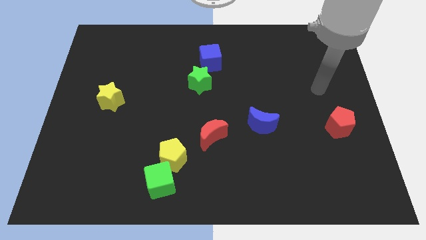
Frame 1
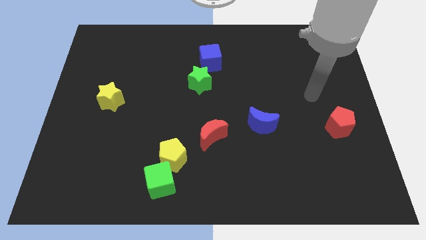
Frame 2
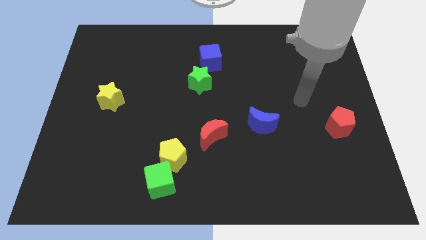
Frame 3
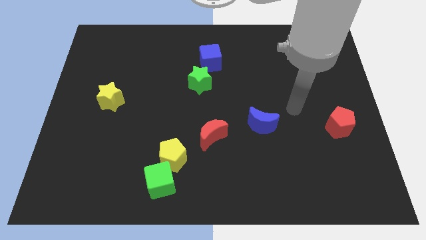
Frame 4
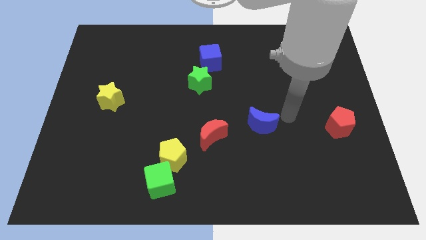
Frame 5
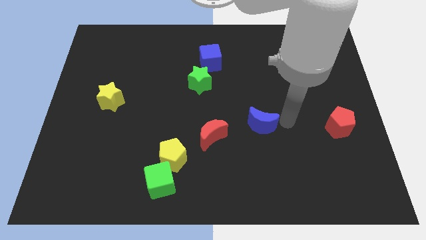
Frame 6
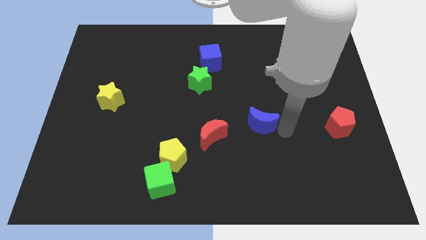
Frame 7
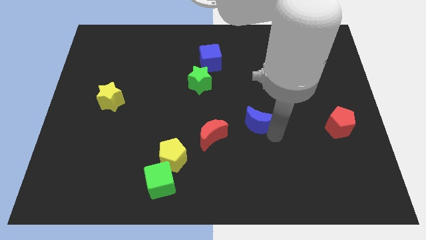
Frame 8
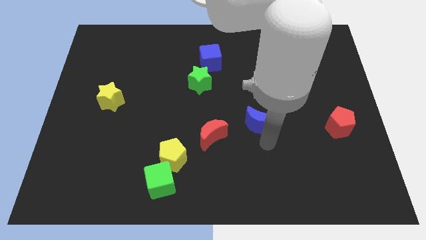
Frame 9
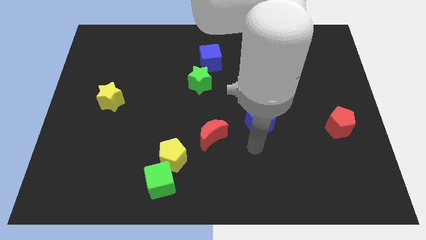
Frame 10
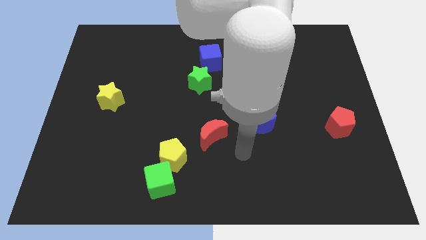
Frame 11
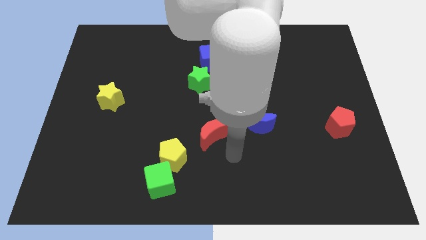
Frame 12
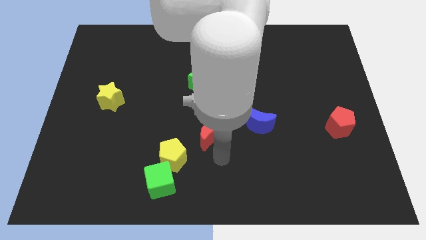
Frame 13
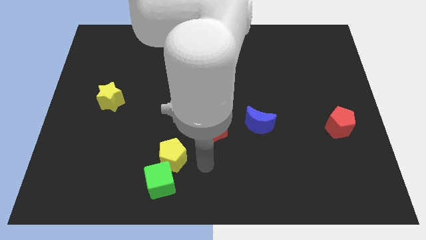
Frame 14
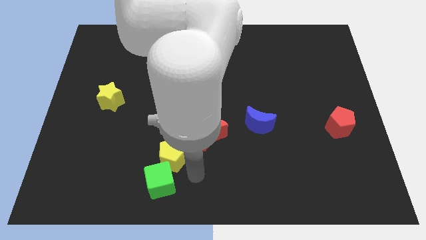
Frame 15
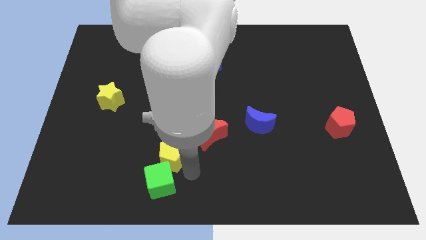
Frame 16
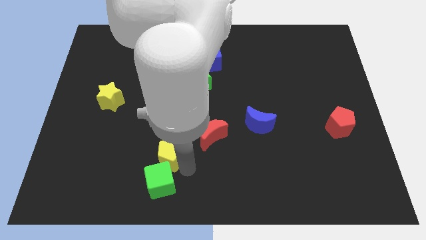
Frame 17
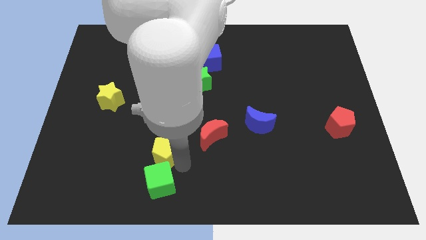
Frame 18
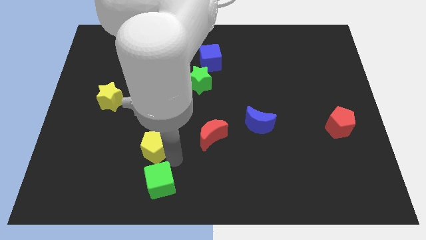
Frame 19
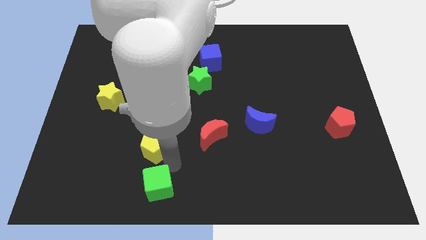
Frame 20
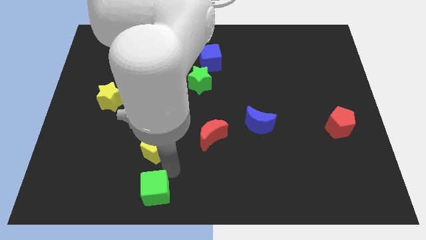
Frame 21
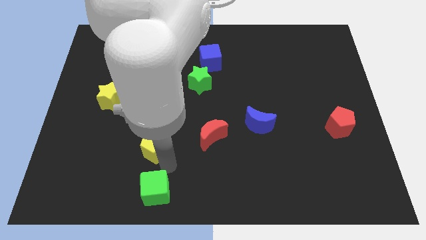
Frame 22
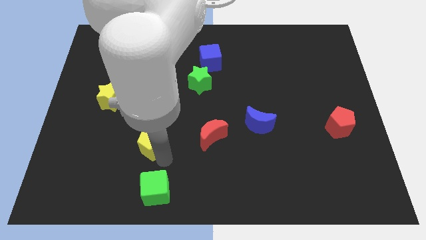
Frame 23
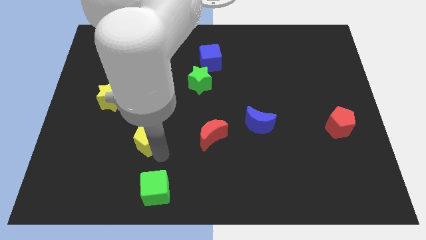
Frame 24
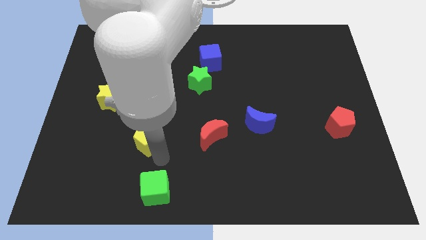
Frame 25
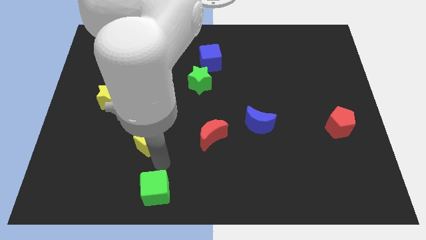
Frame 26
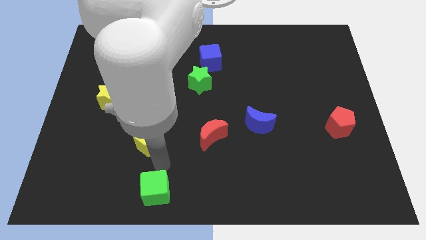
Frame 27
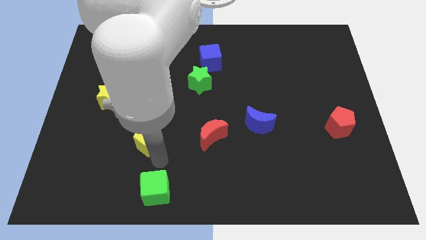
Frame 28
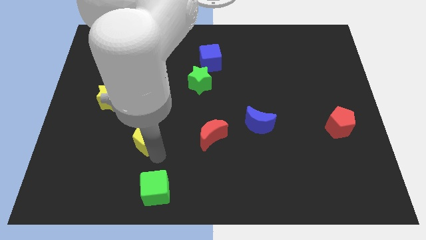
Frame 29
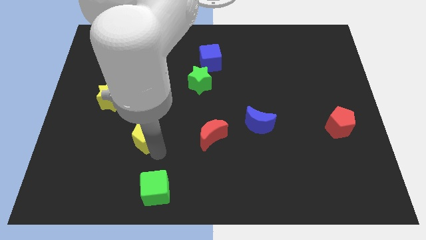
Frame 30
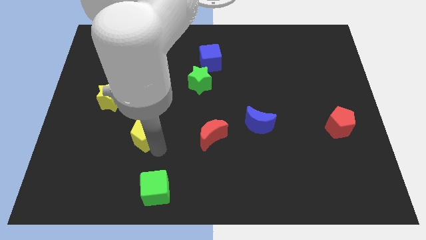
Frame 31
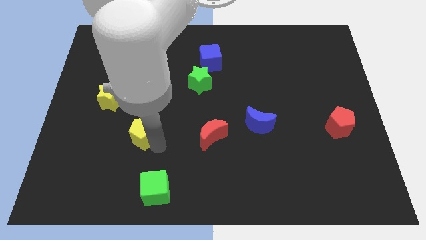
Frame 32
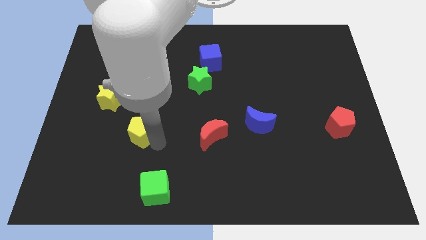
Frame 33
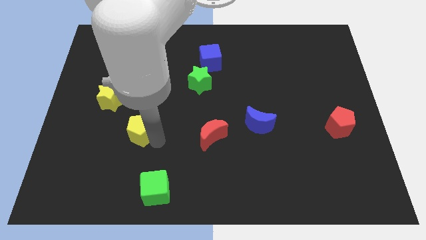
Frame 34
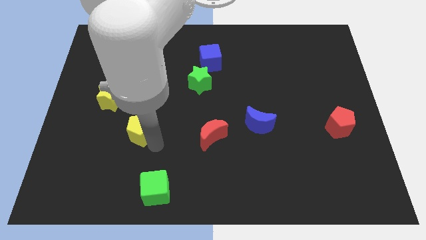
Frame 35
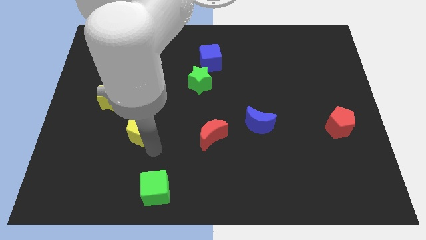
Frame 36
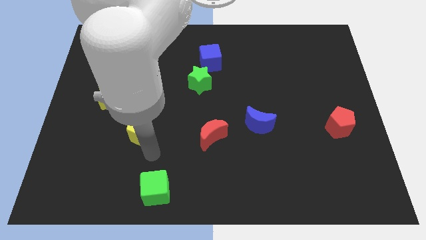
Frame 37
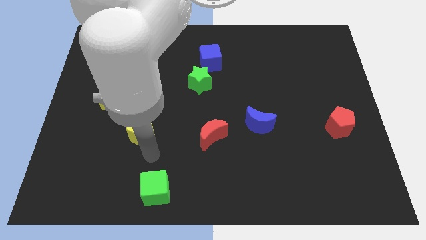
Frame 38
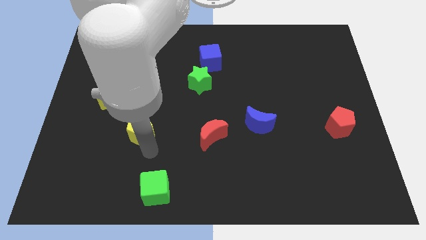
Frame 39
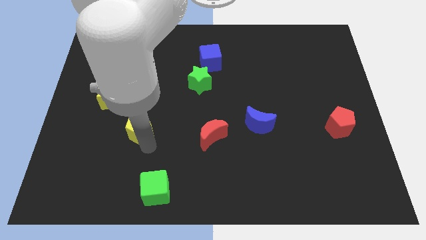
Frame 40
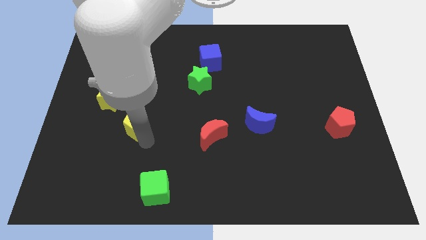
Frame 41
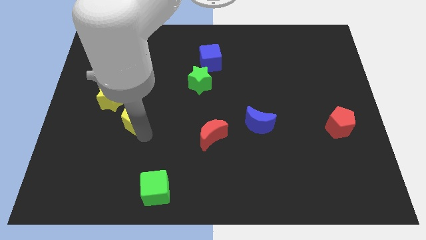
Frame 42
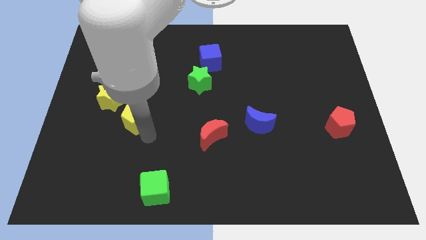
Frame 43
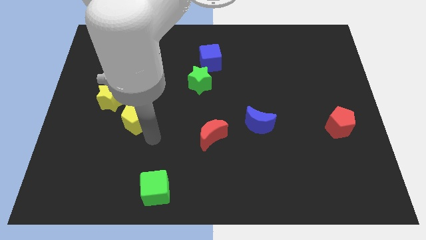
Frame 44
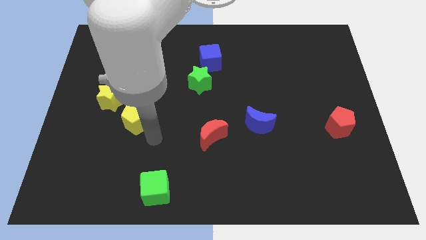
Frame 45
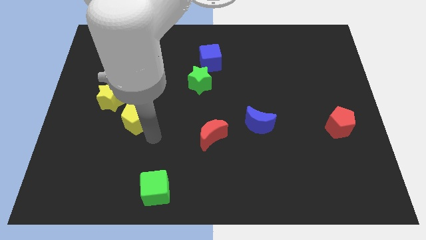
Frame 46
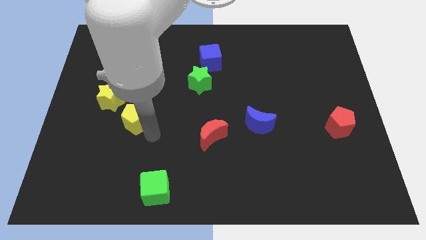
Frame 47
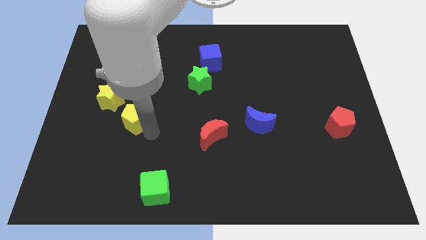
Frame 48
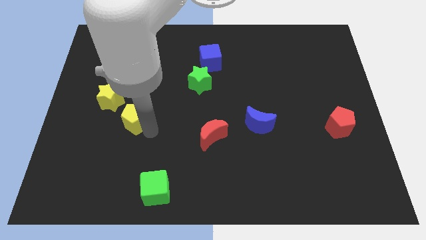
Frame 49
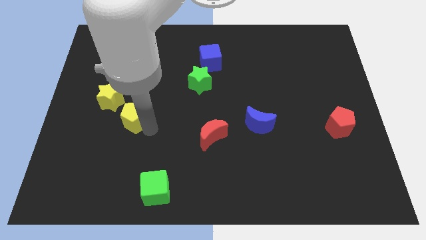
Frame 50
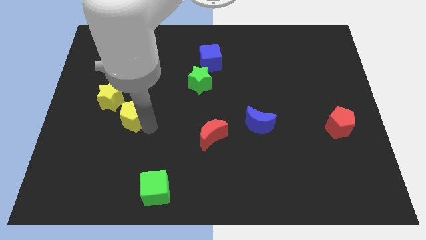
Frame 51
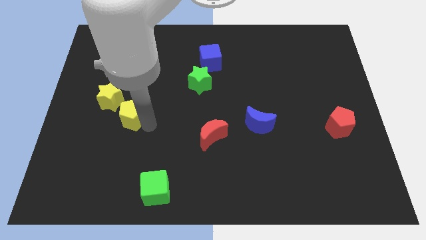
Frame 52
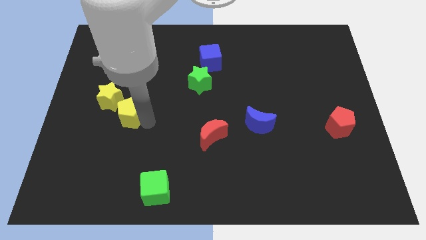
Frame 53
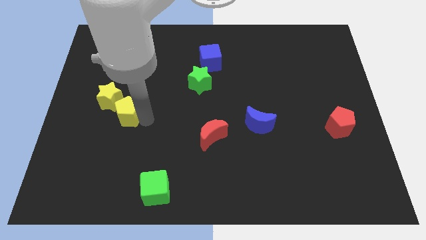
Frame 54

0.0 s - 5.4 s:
push the yellow pentagon next to the yellow star

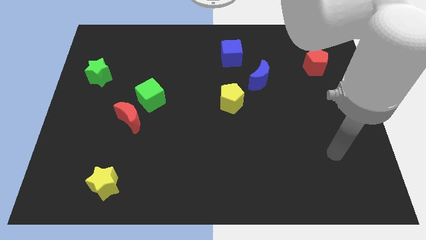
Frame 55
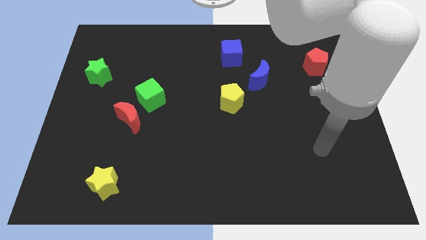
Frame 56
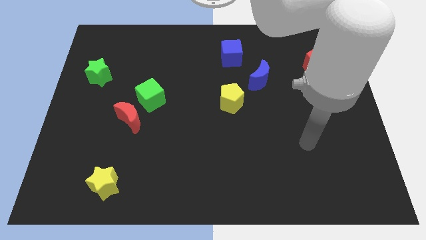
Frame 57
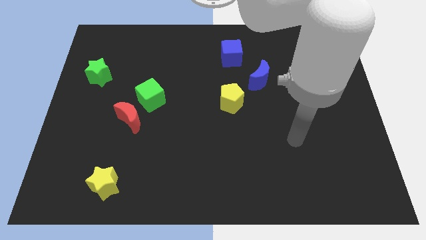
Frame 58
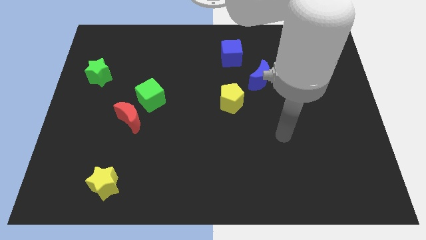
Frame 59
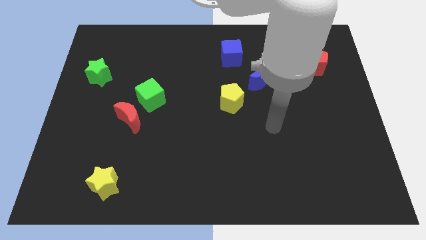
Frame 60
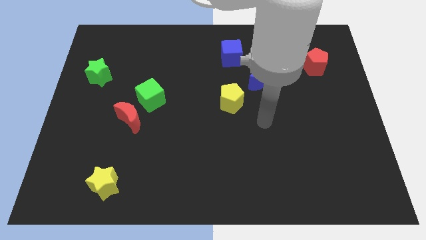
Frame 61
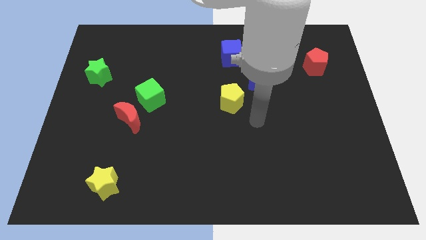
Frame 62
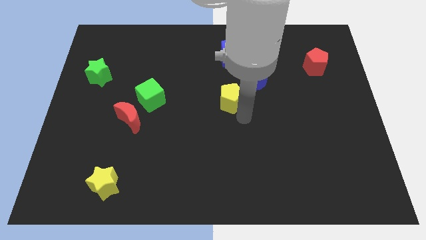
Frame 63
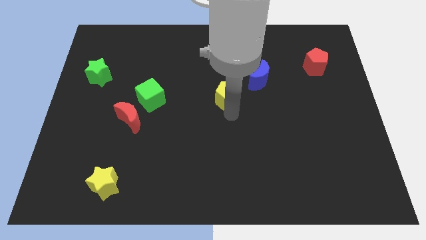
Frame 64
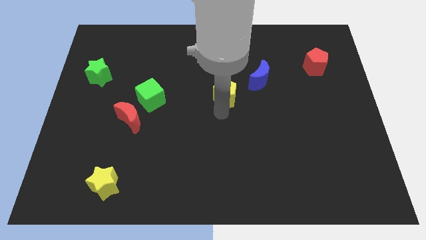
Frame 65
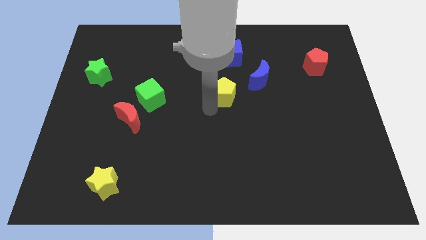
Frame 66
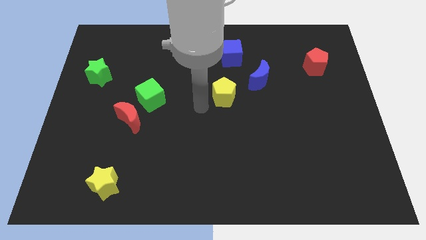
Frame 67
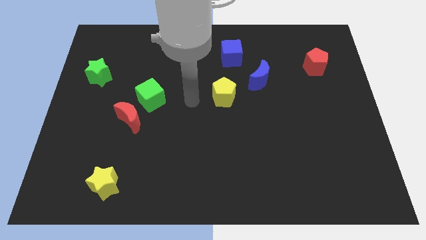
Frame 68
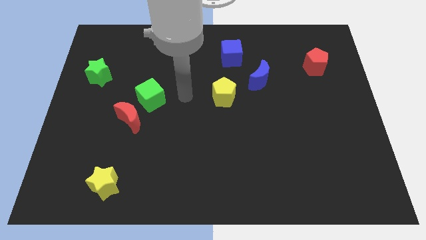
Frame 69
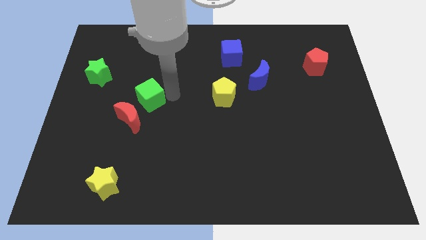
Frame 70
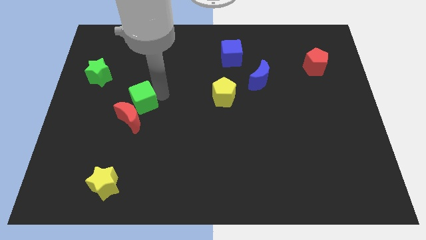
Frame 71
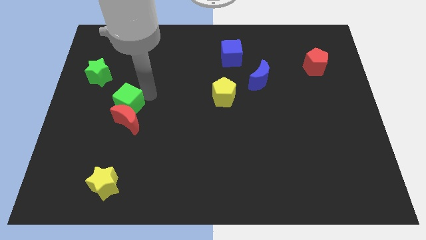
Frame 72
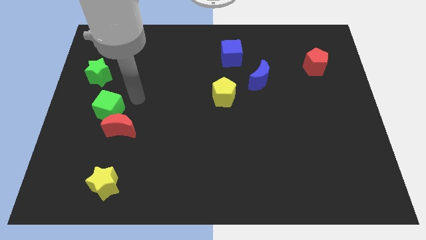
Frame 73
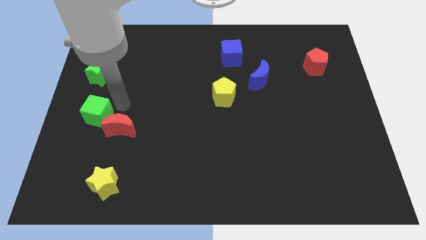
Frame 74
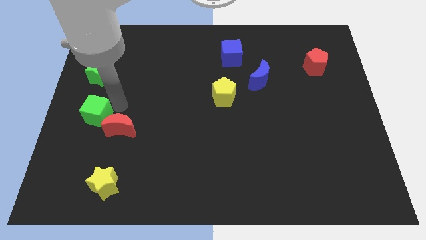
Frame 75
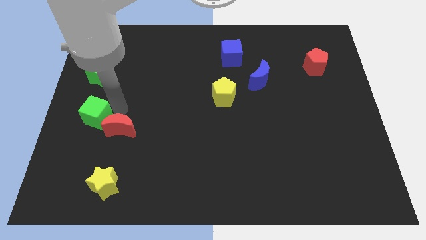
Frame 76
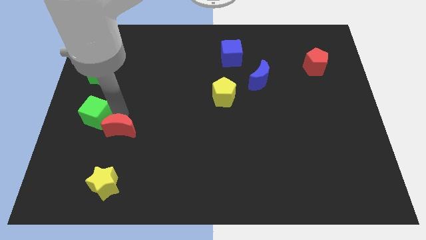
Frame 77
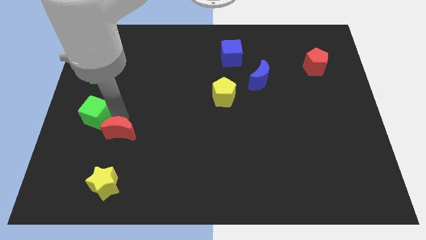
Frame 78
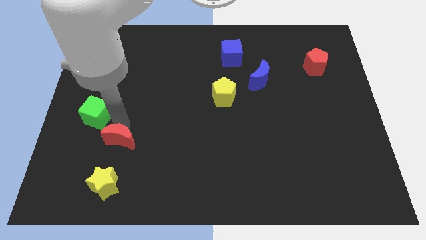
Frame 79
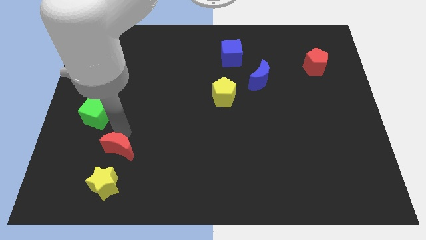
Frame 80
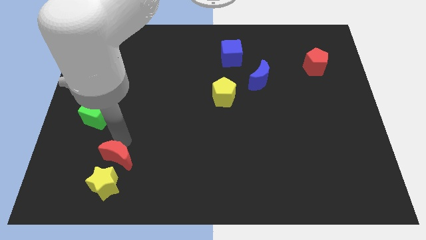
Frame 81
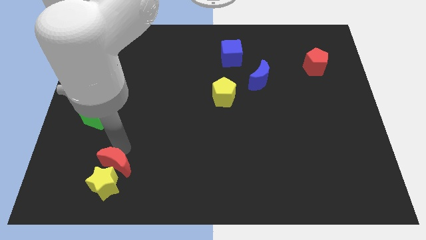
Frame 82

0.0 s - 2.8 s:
push the red moon towards the yellow star
